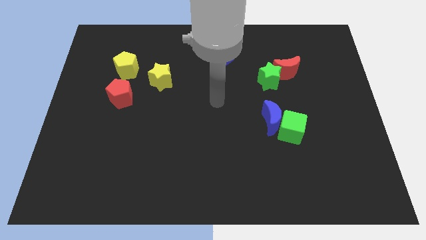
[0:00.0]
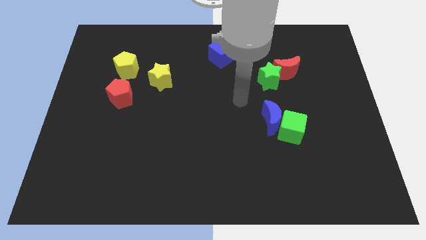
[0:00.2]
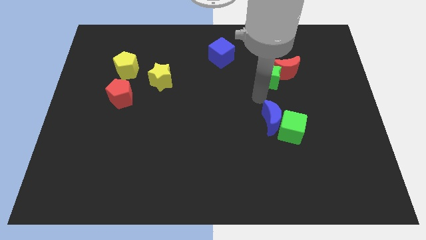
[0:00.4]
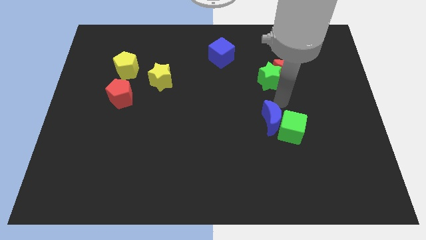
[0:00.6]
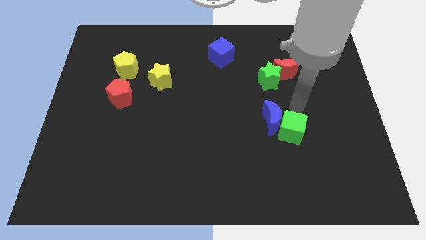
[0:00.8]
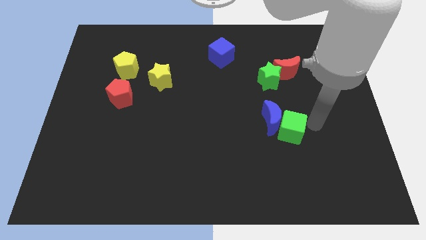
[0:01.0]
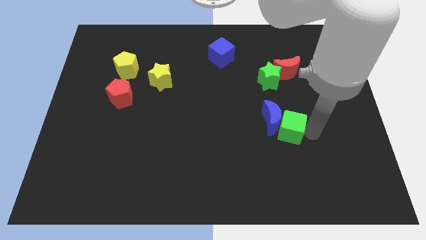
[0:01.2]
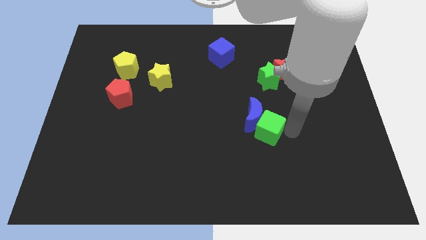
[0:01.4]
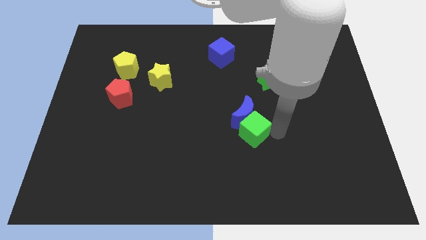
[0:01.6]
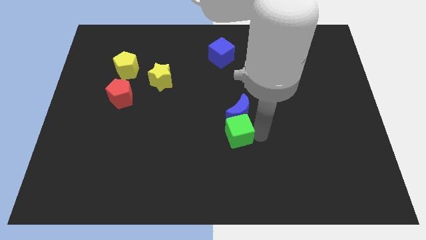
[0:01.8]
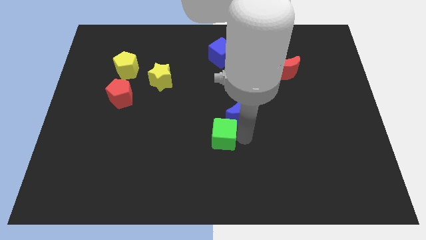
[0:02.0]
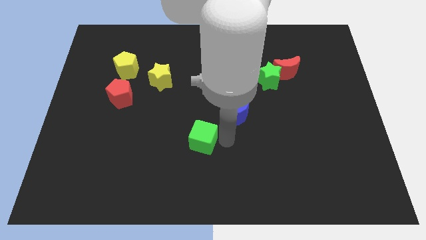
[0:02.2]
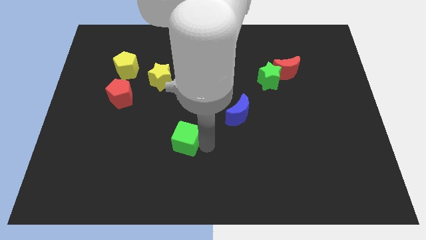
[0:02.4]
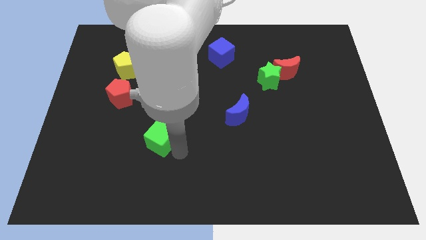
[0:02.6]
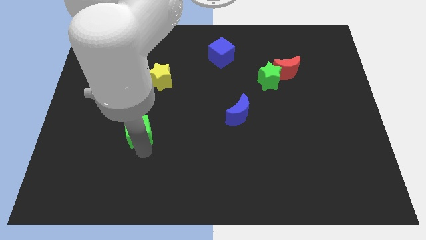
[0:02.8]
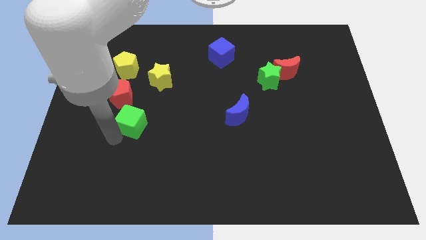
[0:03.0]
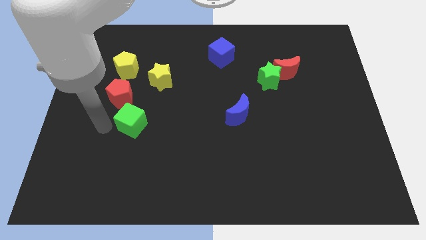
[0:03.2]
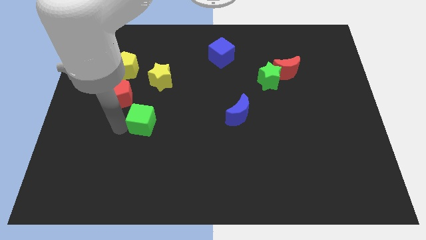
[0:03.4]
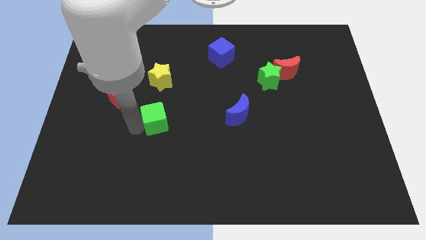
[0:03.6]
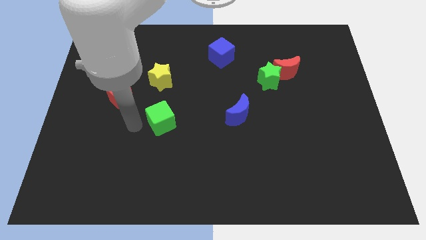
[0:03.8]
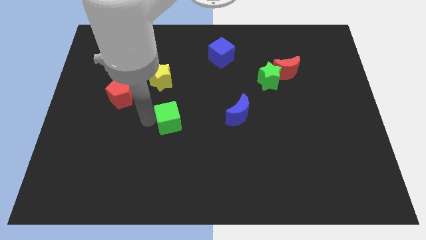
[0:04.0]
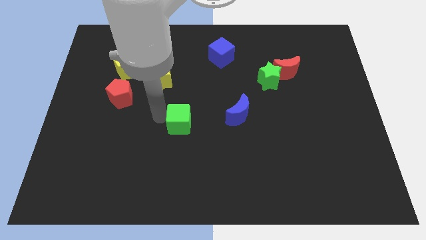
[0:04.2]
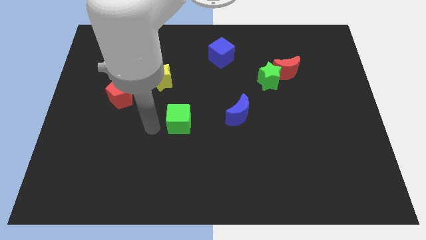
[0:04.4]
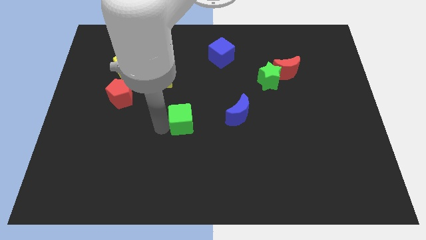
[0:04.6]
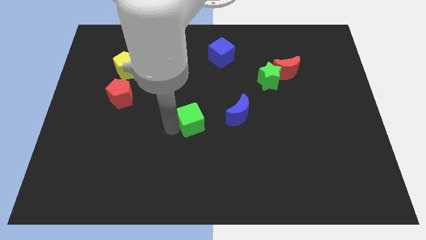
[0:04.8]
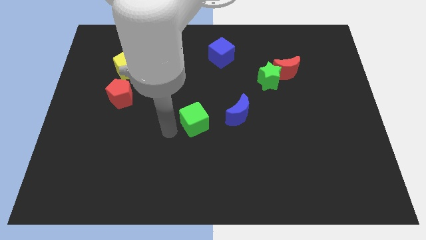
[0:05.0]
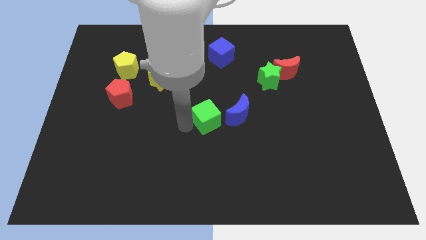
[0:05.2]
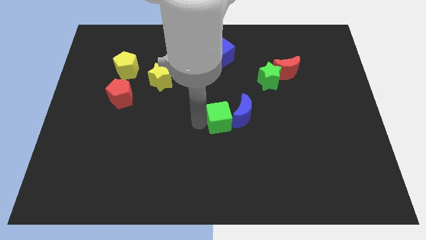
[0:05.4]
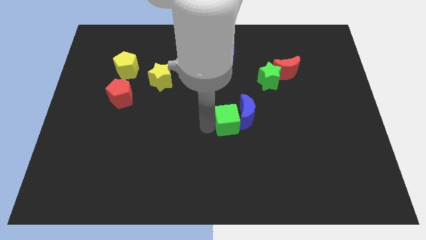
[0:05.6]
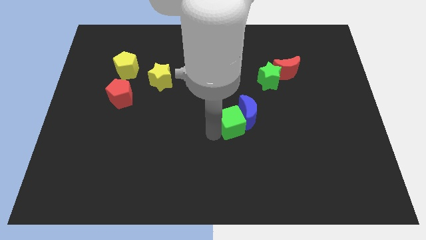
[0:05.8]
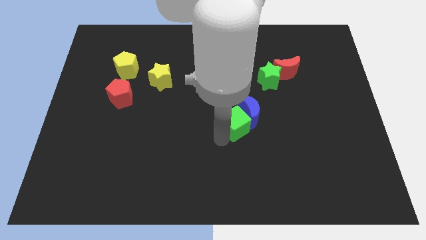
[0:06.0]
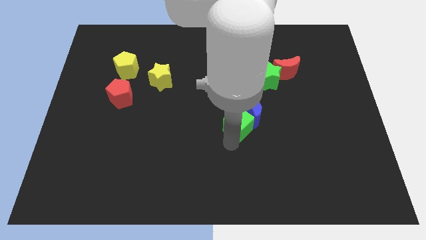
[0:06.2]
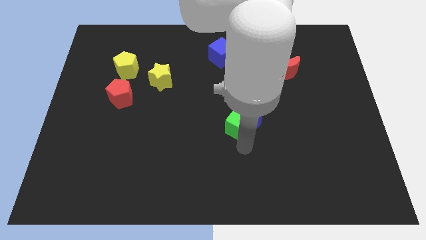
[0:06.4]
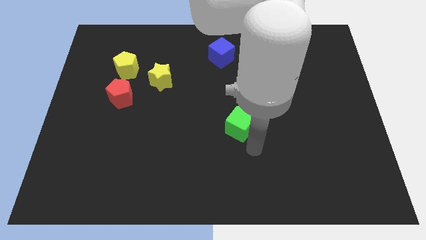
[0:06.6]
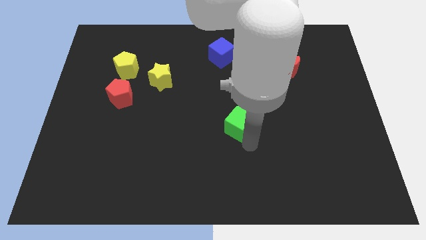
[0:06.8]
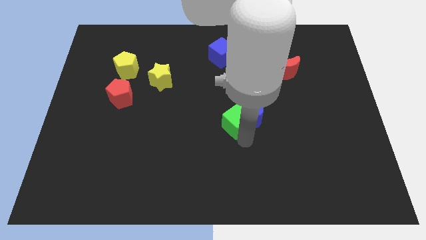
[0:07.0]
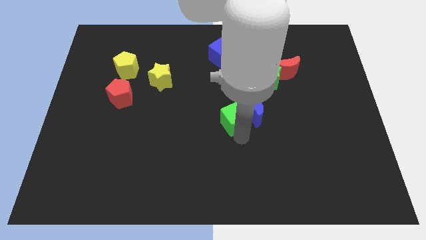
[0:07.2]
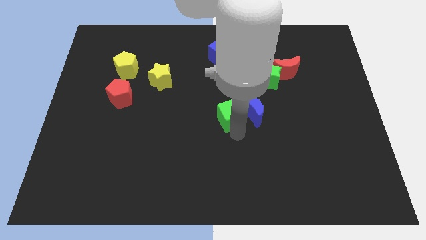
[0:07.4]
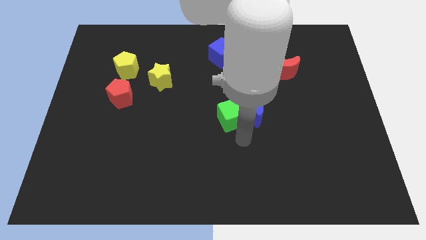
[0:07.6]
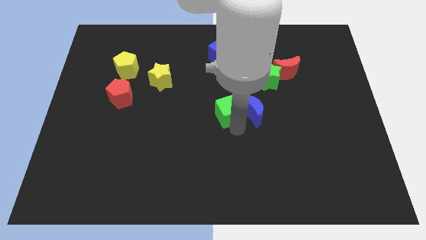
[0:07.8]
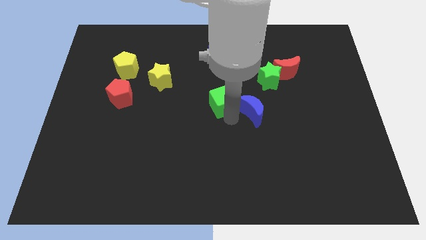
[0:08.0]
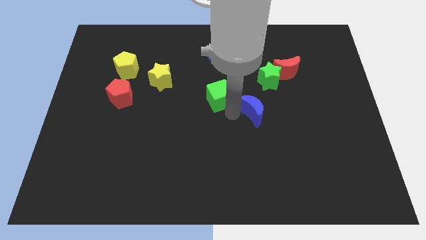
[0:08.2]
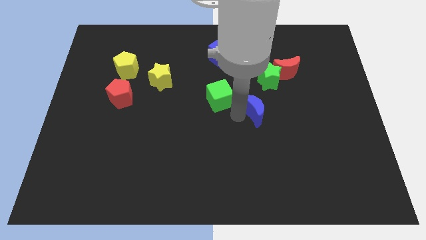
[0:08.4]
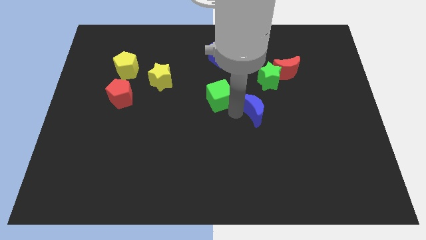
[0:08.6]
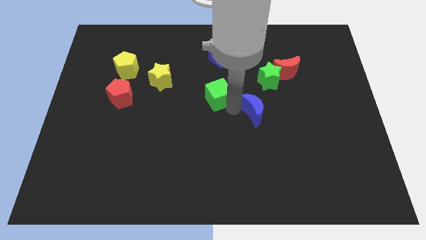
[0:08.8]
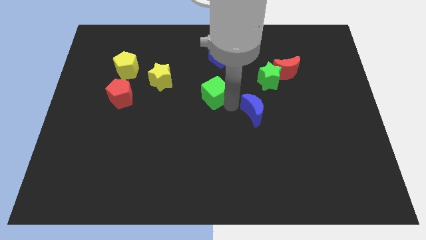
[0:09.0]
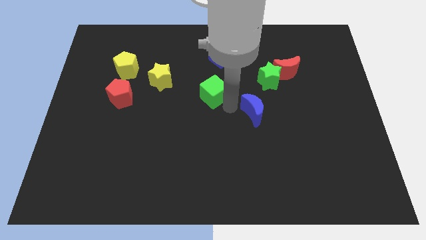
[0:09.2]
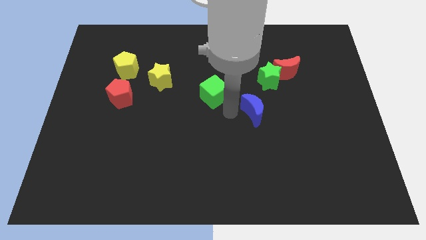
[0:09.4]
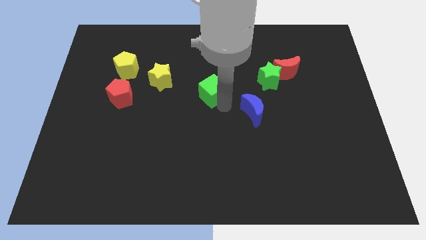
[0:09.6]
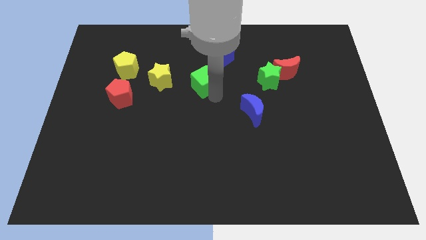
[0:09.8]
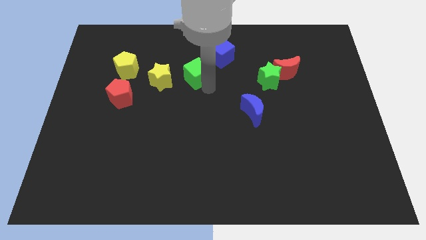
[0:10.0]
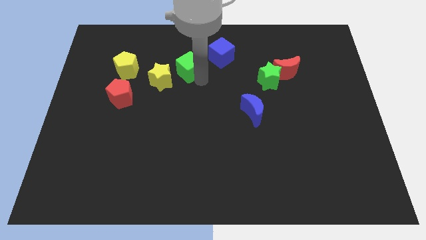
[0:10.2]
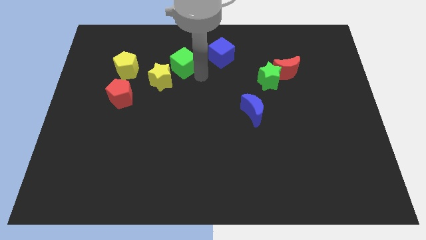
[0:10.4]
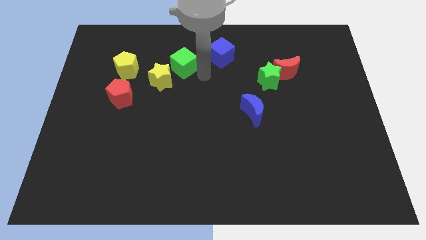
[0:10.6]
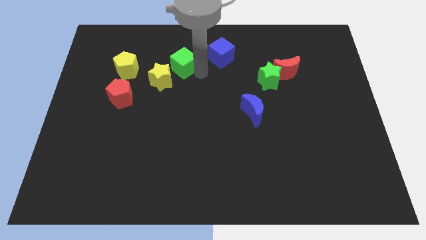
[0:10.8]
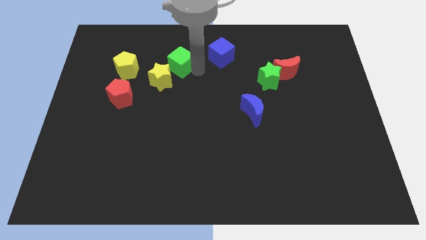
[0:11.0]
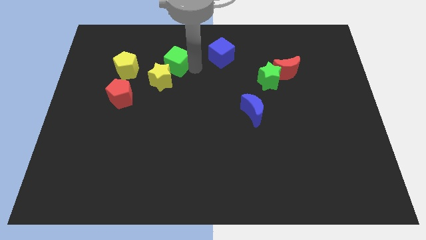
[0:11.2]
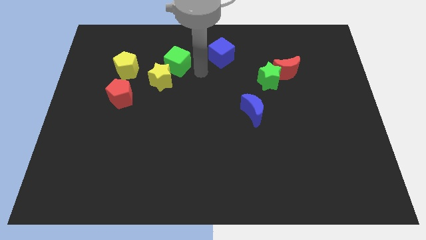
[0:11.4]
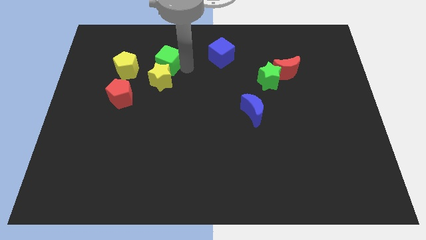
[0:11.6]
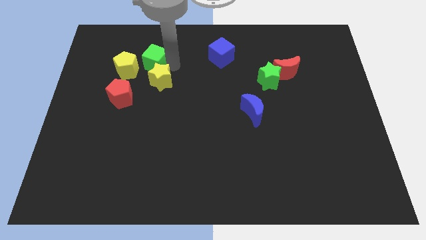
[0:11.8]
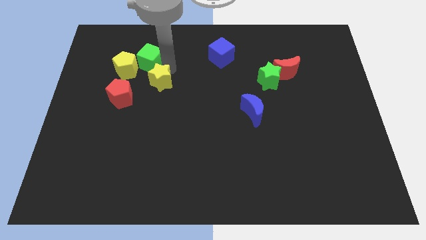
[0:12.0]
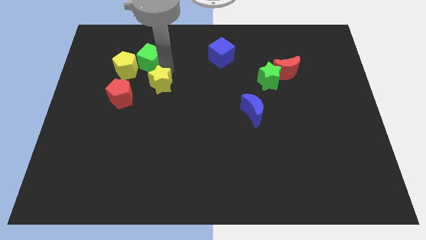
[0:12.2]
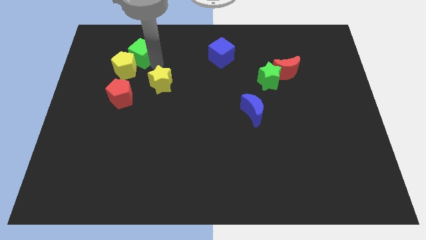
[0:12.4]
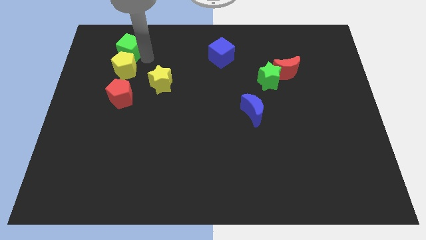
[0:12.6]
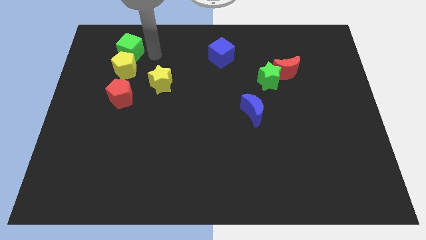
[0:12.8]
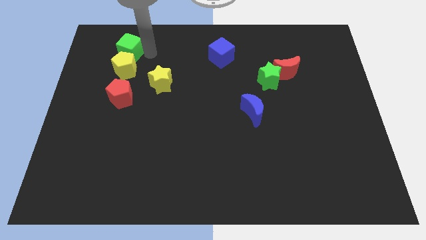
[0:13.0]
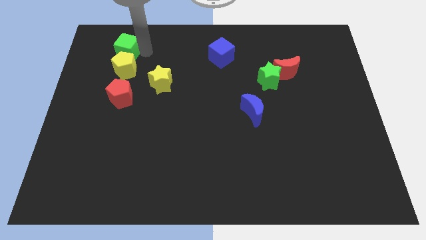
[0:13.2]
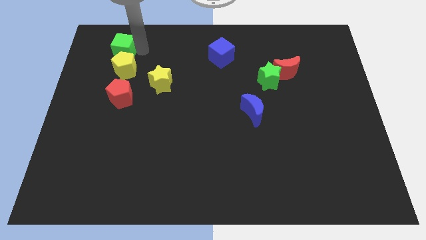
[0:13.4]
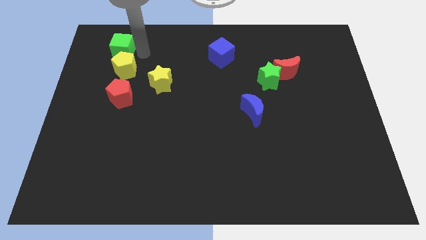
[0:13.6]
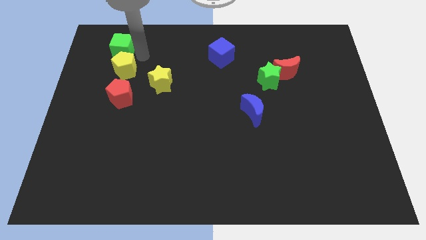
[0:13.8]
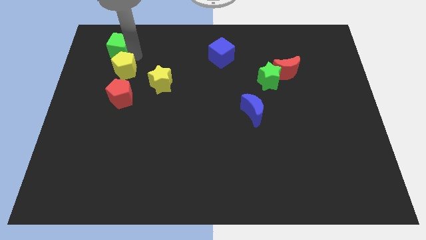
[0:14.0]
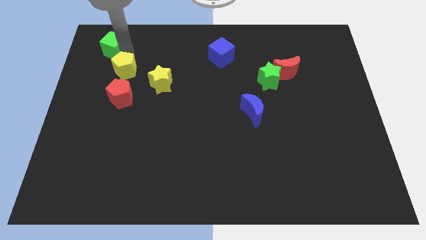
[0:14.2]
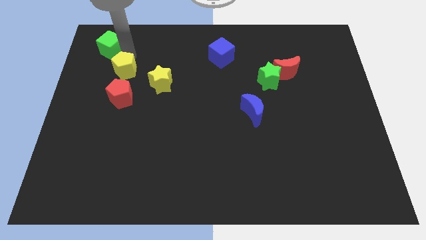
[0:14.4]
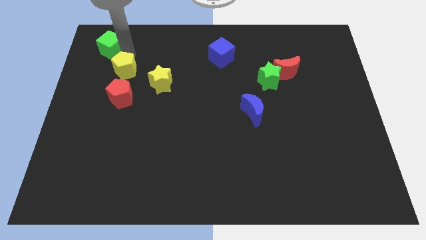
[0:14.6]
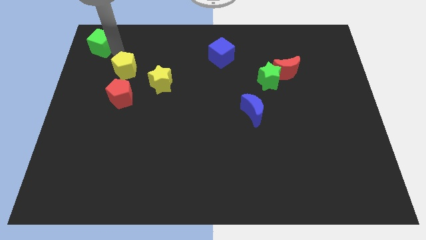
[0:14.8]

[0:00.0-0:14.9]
move the green cube to the top left corner
